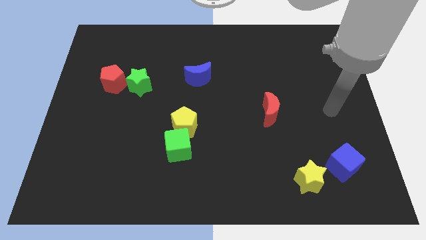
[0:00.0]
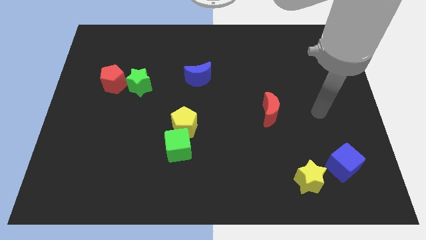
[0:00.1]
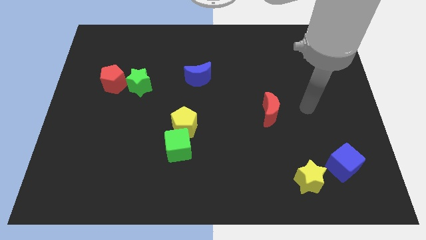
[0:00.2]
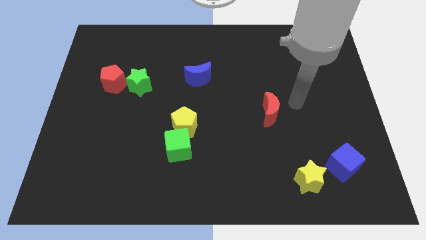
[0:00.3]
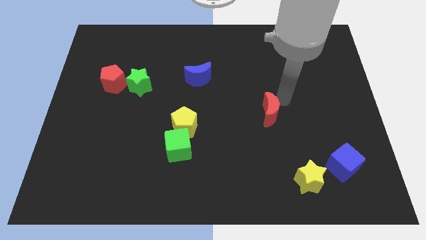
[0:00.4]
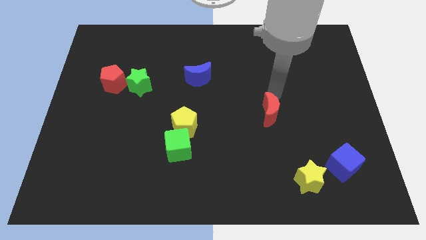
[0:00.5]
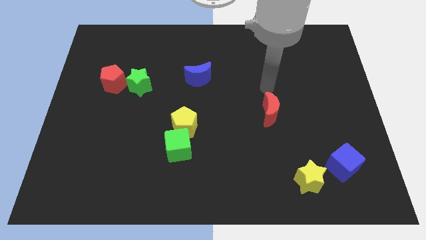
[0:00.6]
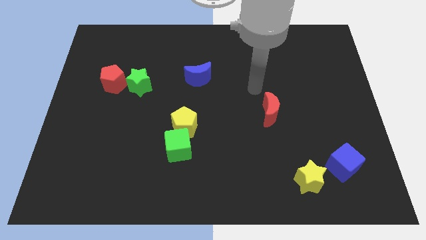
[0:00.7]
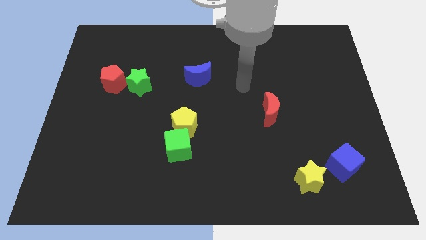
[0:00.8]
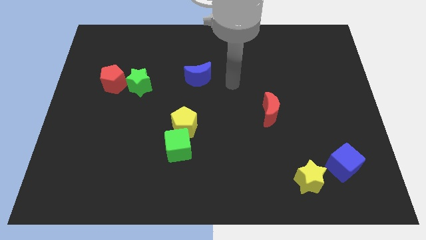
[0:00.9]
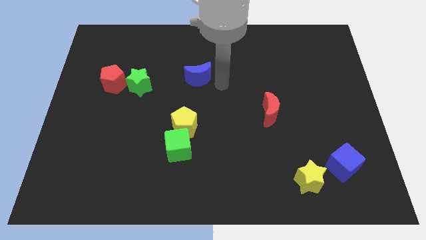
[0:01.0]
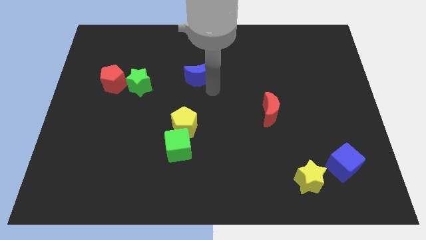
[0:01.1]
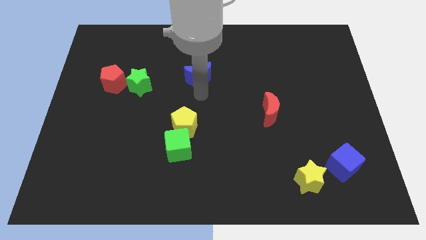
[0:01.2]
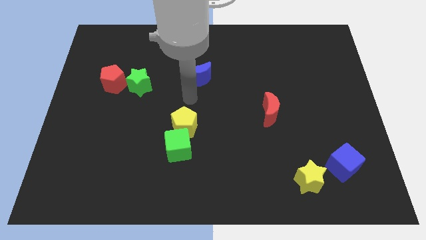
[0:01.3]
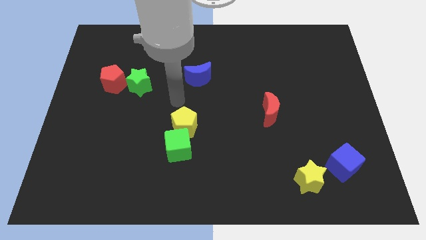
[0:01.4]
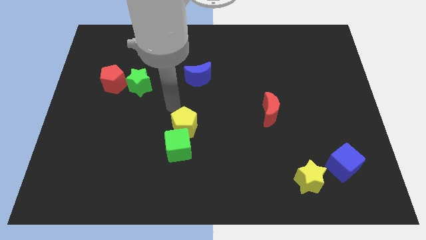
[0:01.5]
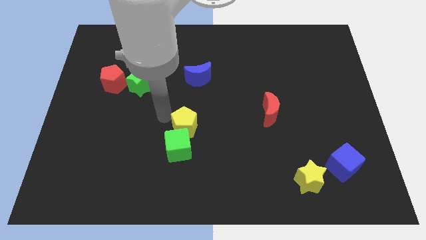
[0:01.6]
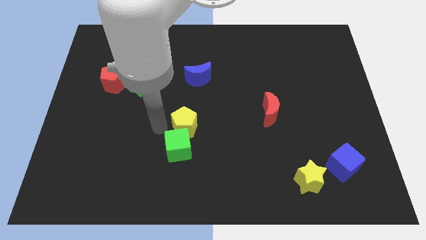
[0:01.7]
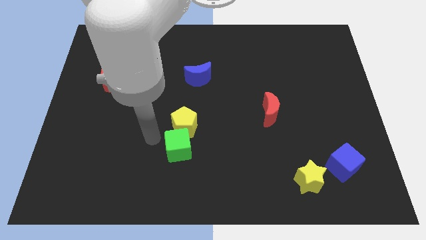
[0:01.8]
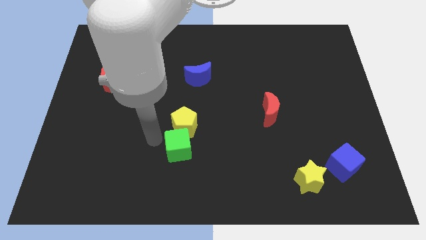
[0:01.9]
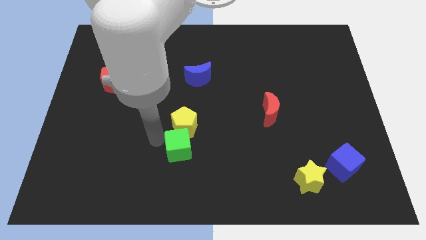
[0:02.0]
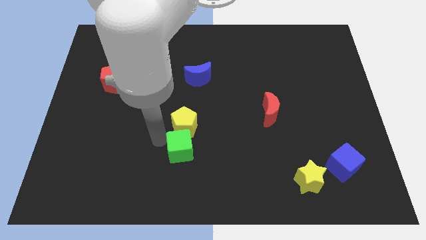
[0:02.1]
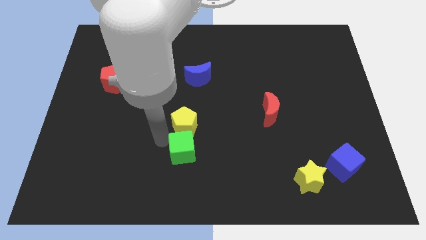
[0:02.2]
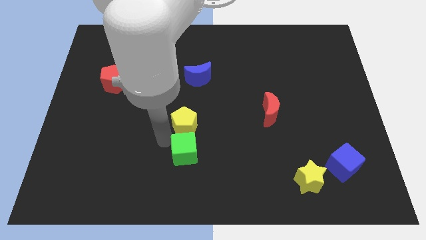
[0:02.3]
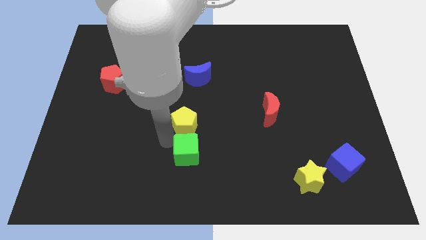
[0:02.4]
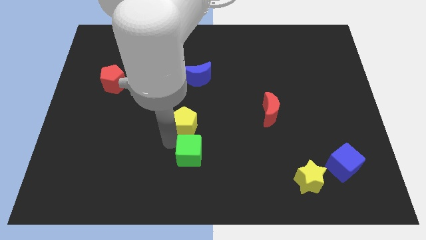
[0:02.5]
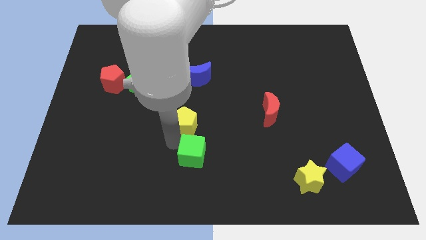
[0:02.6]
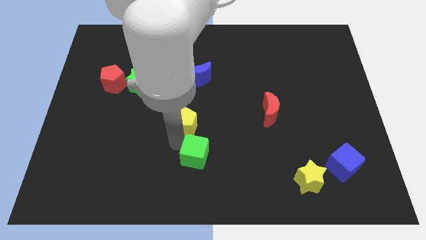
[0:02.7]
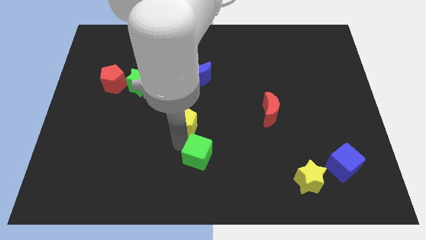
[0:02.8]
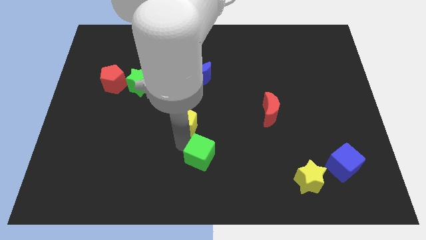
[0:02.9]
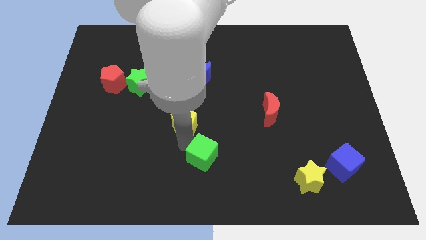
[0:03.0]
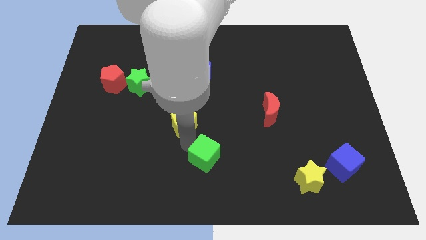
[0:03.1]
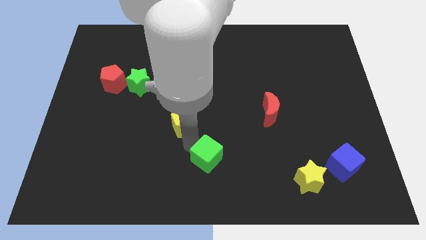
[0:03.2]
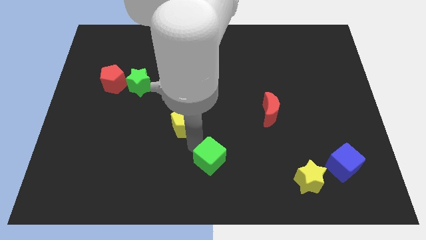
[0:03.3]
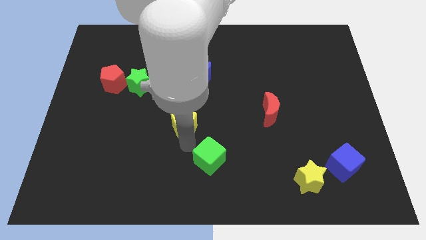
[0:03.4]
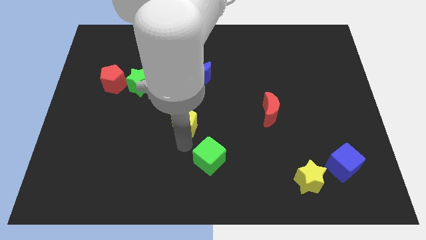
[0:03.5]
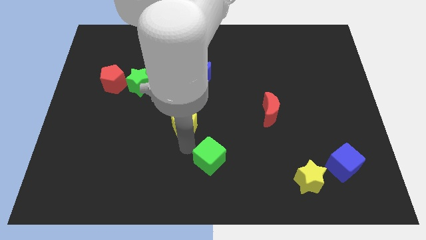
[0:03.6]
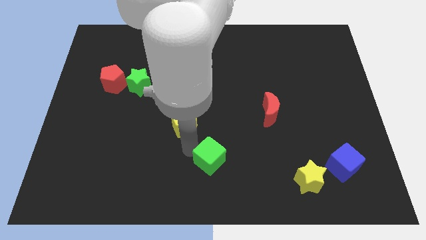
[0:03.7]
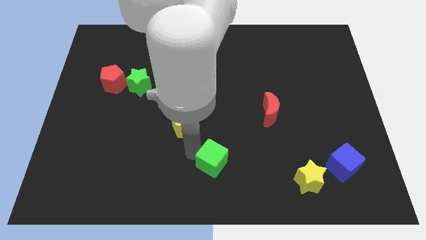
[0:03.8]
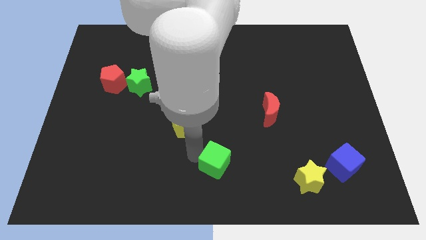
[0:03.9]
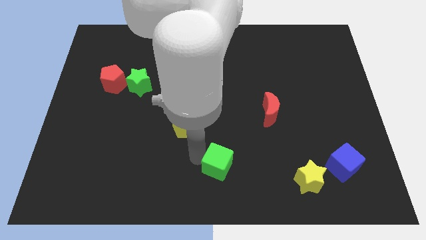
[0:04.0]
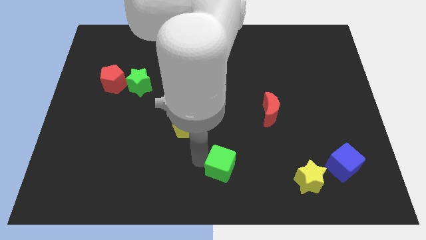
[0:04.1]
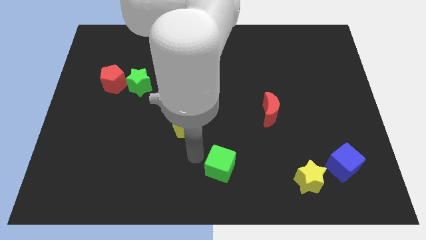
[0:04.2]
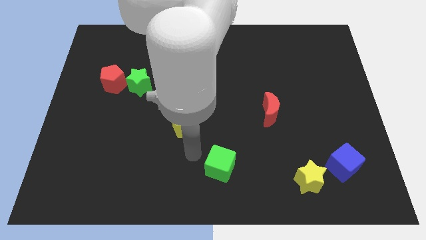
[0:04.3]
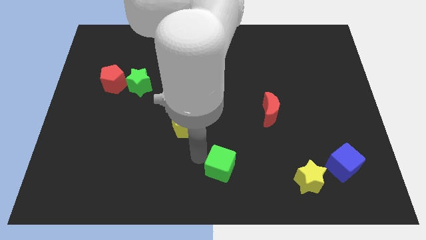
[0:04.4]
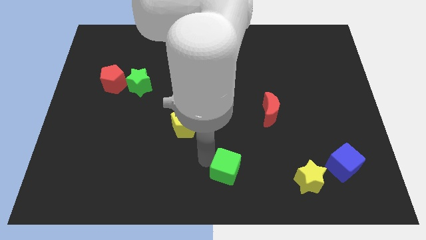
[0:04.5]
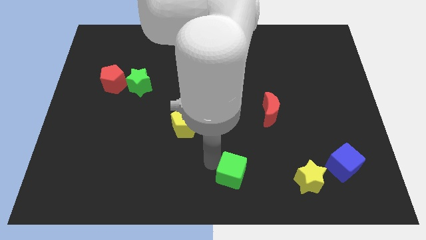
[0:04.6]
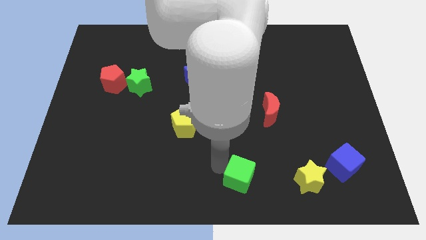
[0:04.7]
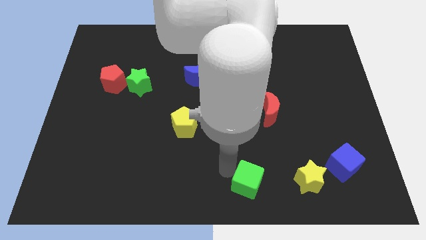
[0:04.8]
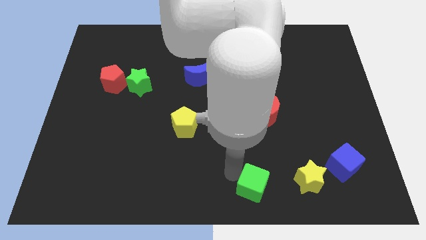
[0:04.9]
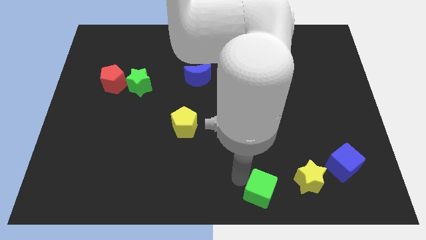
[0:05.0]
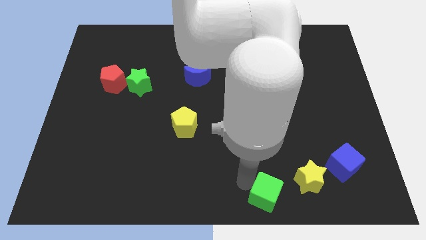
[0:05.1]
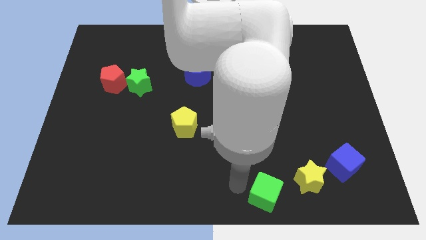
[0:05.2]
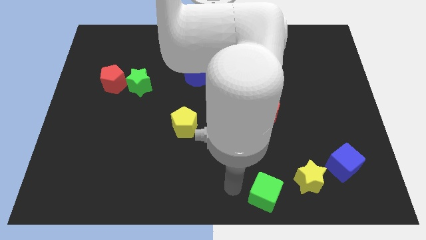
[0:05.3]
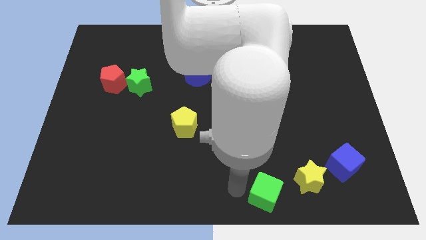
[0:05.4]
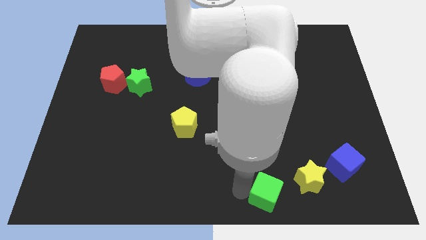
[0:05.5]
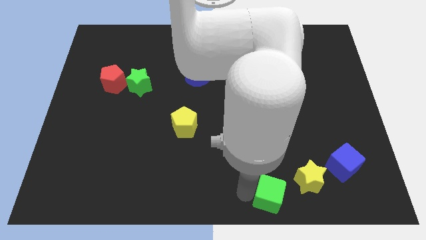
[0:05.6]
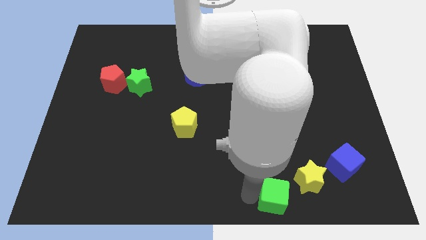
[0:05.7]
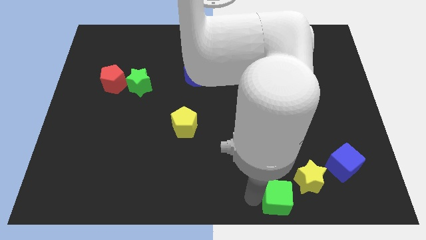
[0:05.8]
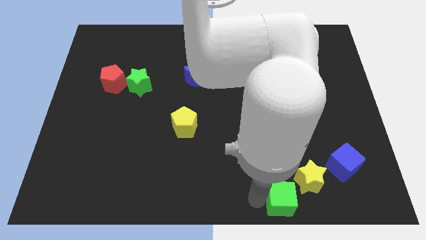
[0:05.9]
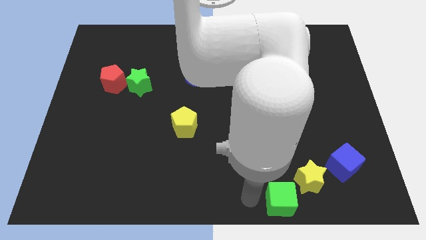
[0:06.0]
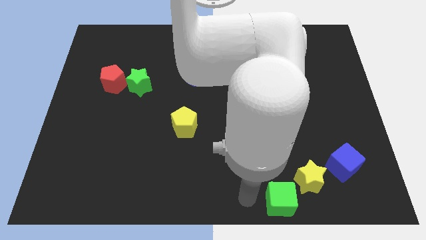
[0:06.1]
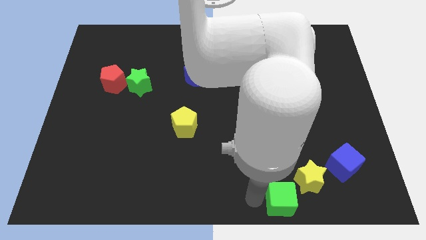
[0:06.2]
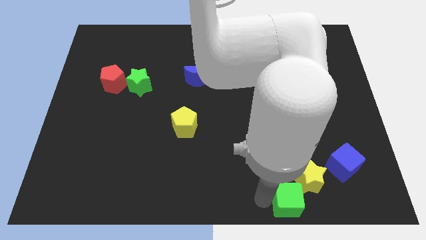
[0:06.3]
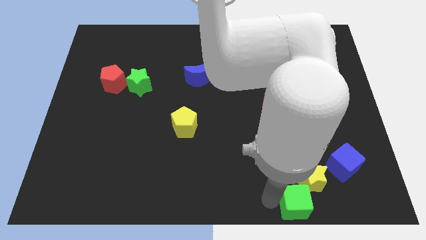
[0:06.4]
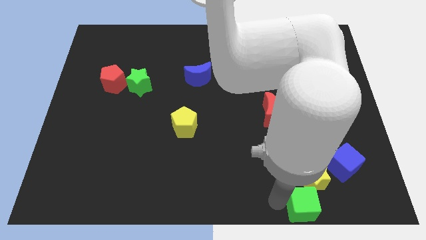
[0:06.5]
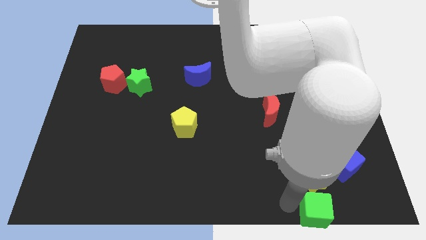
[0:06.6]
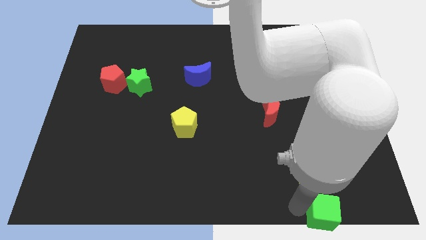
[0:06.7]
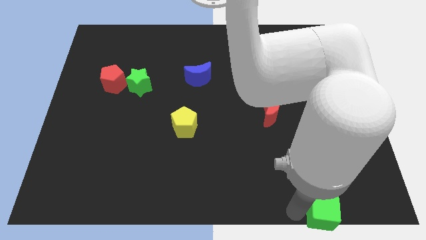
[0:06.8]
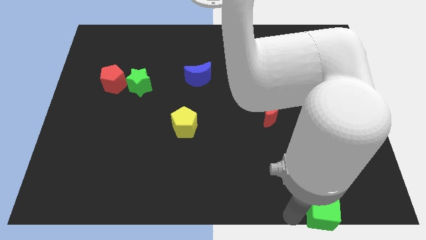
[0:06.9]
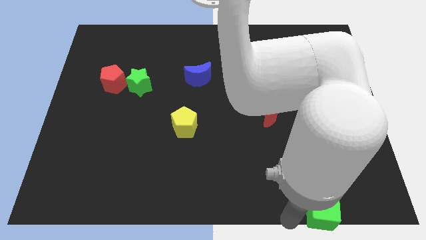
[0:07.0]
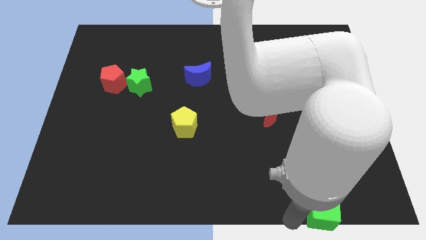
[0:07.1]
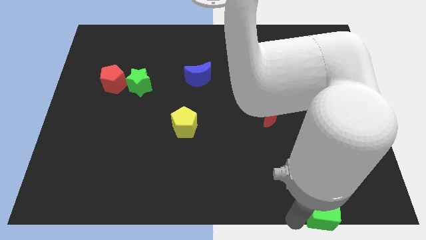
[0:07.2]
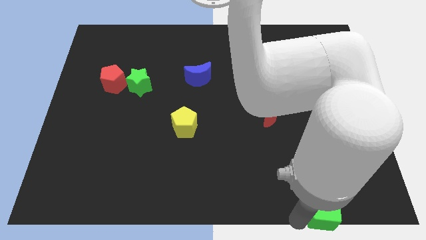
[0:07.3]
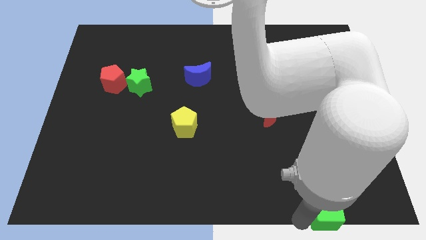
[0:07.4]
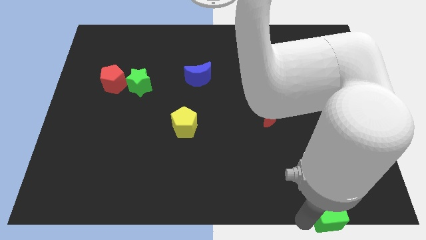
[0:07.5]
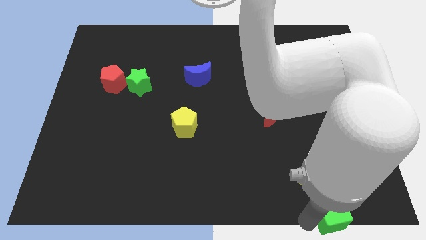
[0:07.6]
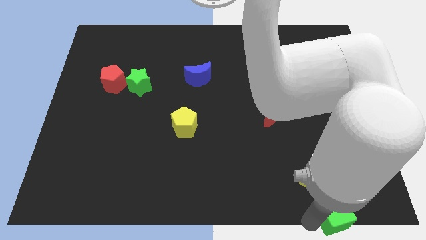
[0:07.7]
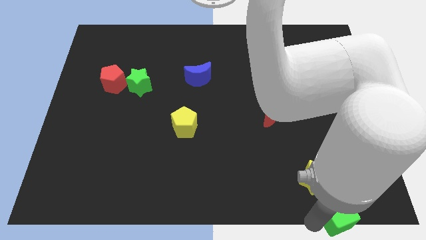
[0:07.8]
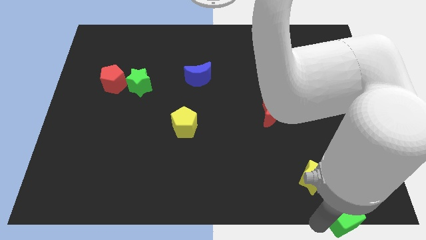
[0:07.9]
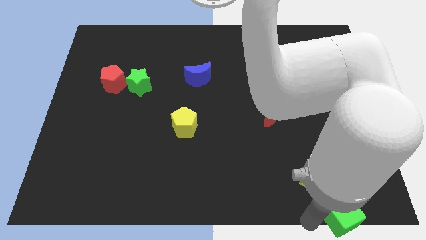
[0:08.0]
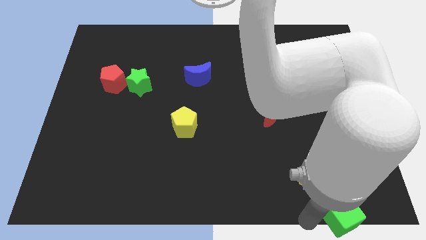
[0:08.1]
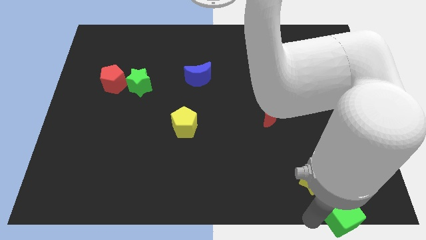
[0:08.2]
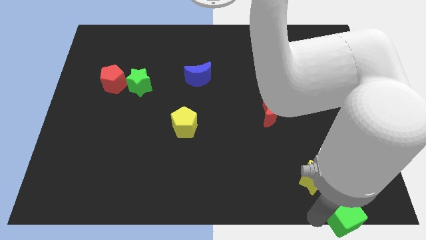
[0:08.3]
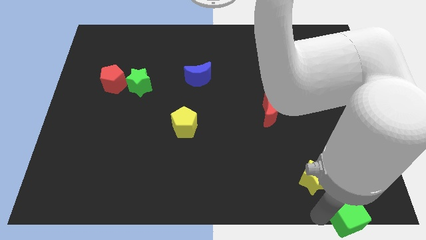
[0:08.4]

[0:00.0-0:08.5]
move the green cube to the bottom right
